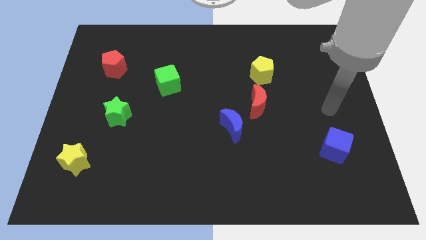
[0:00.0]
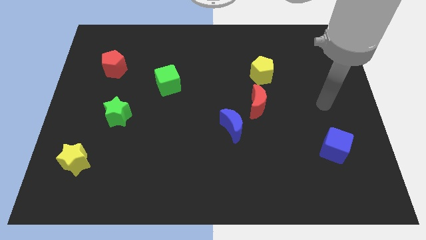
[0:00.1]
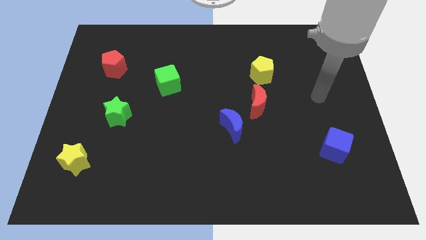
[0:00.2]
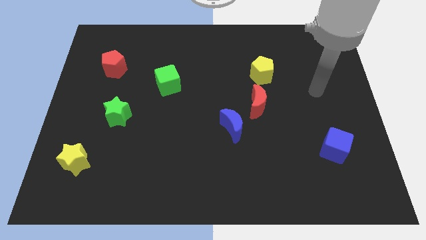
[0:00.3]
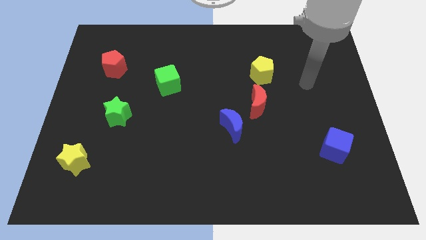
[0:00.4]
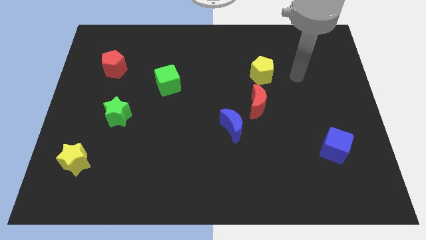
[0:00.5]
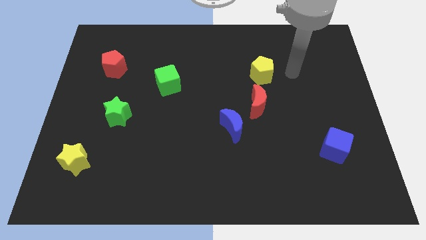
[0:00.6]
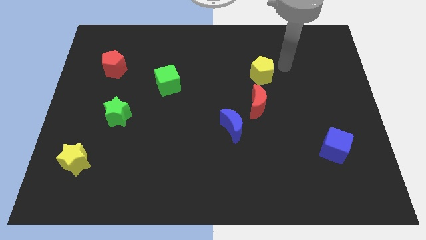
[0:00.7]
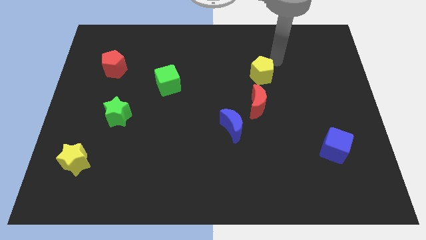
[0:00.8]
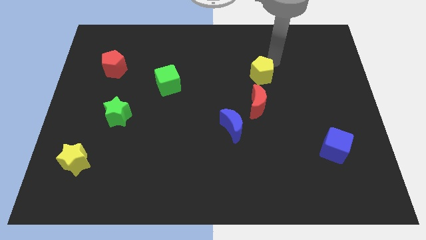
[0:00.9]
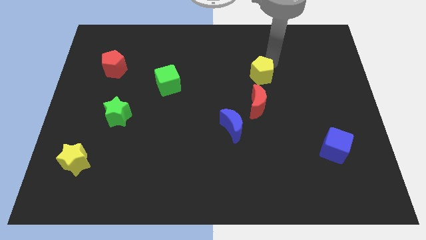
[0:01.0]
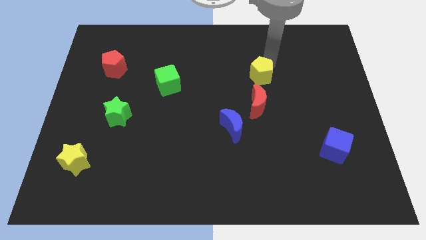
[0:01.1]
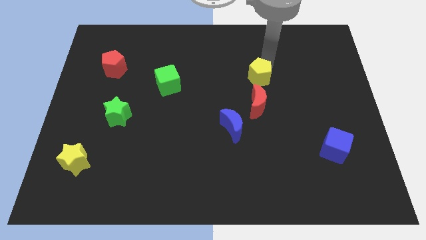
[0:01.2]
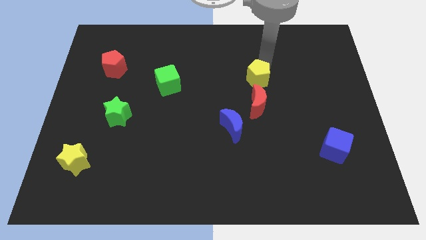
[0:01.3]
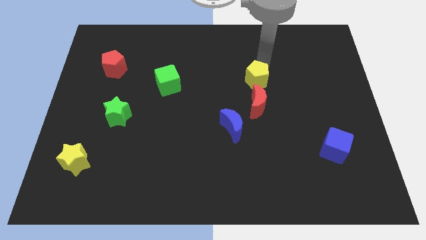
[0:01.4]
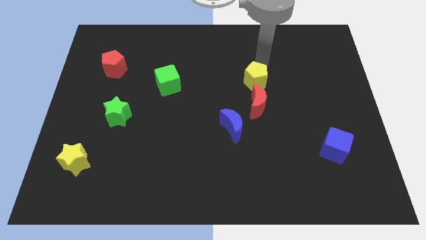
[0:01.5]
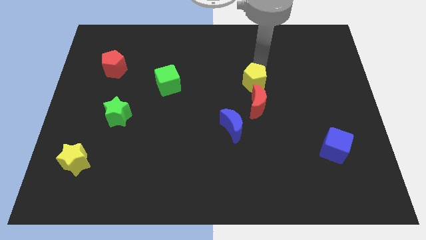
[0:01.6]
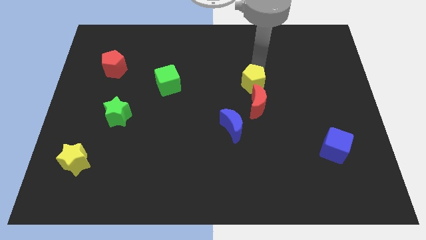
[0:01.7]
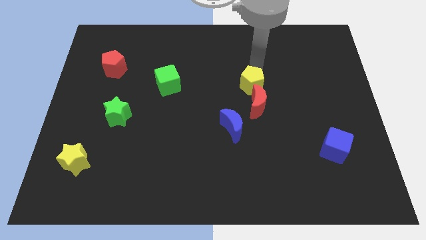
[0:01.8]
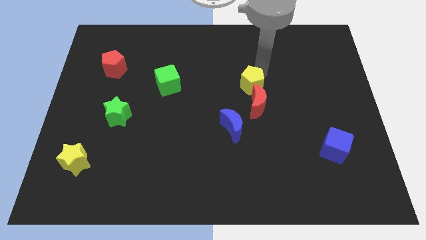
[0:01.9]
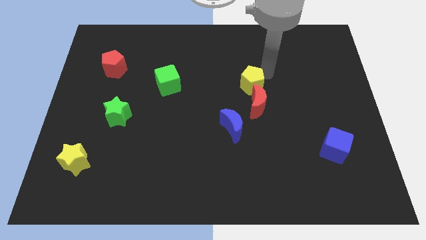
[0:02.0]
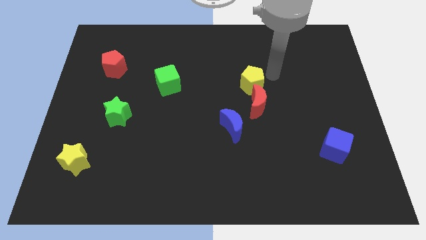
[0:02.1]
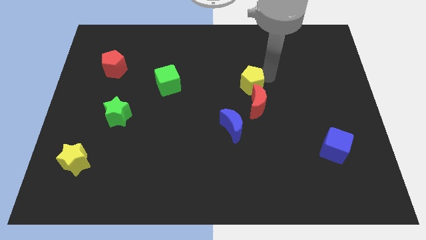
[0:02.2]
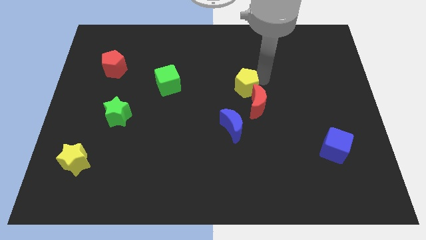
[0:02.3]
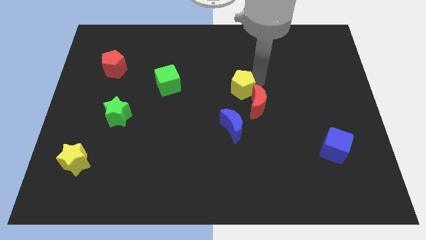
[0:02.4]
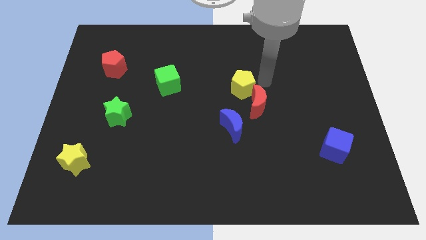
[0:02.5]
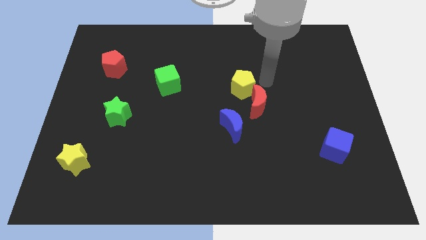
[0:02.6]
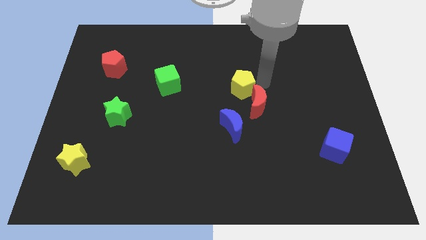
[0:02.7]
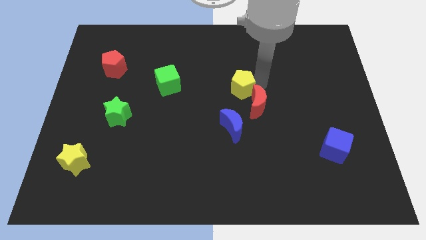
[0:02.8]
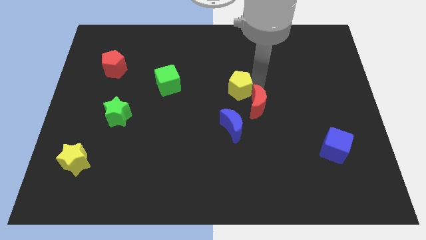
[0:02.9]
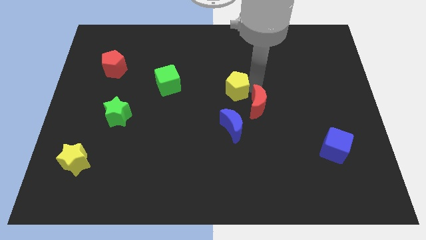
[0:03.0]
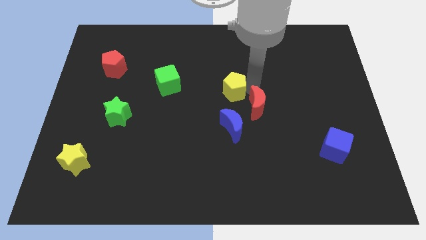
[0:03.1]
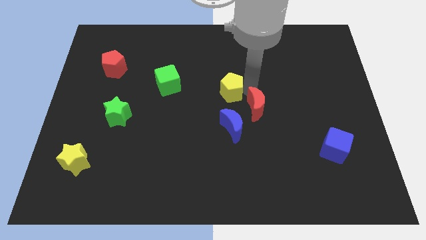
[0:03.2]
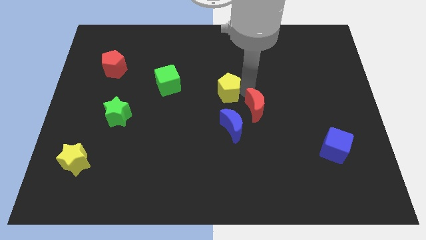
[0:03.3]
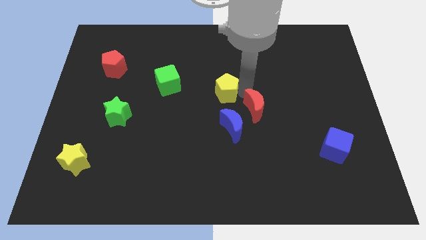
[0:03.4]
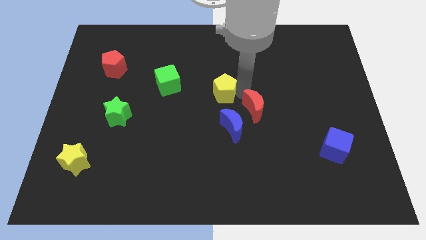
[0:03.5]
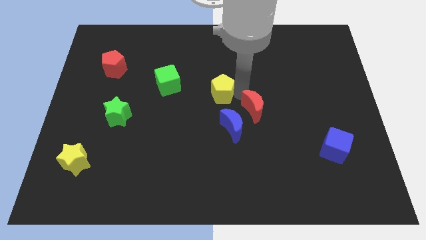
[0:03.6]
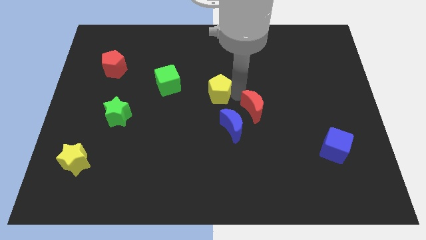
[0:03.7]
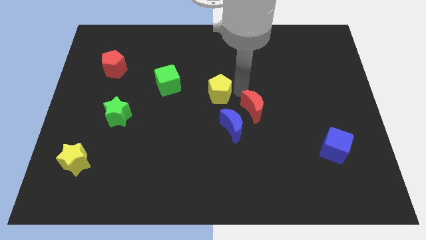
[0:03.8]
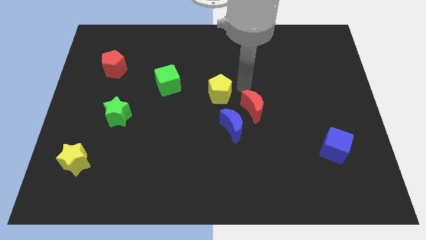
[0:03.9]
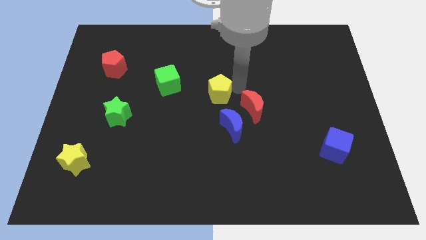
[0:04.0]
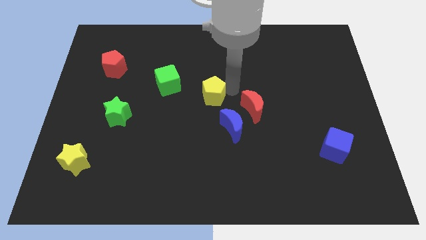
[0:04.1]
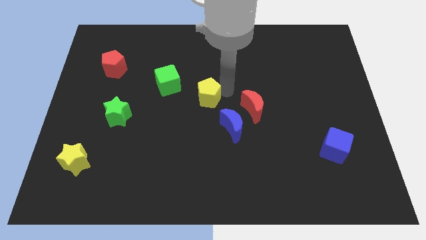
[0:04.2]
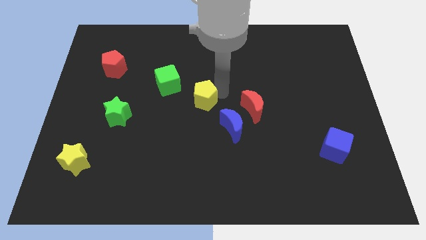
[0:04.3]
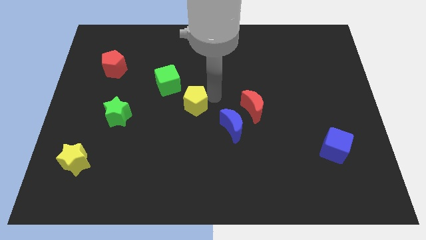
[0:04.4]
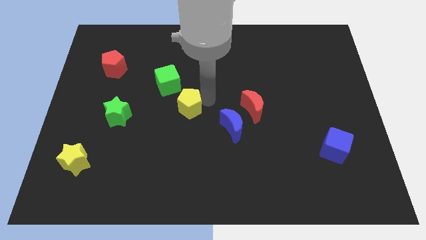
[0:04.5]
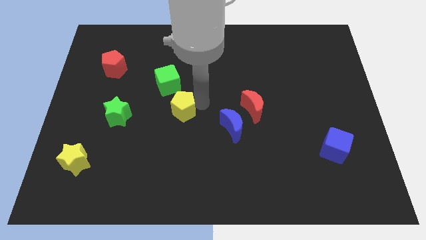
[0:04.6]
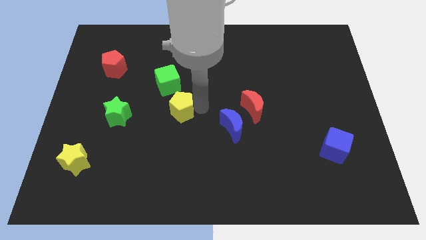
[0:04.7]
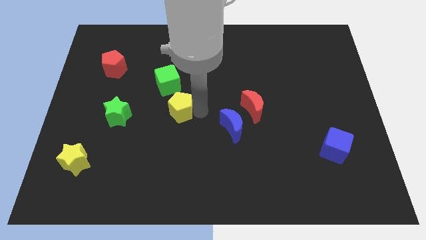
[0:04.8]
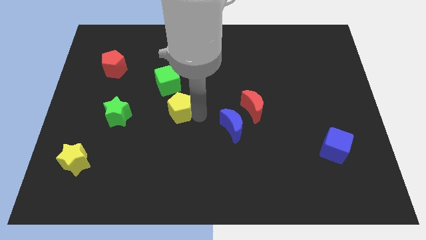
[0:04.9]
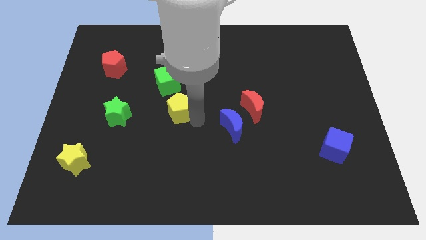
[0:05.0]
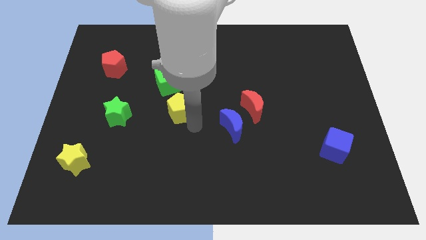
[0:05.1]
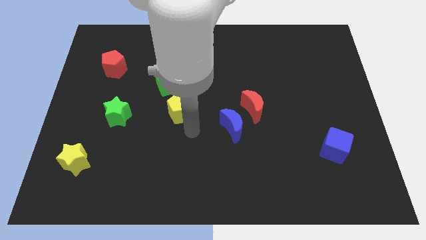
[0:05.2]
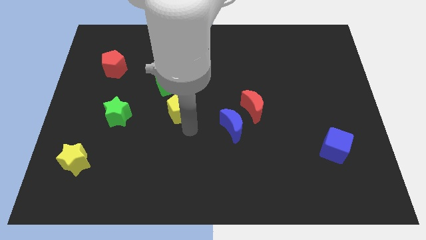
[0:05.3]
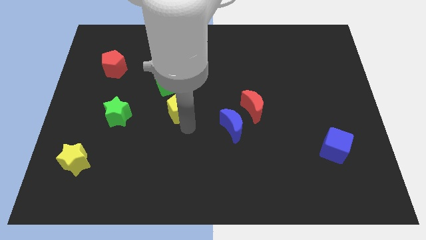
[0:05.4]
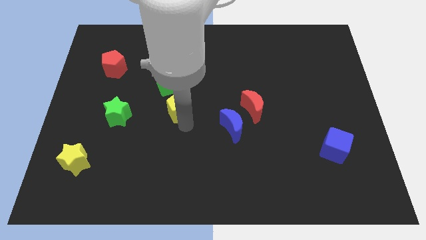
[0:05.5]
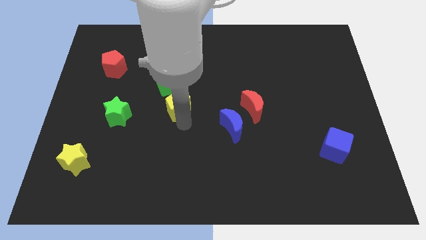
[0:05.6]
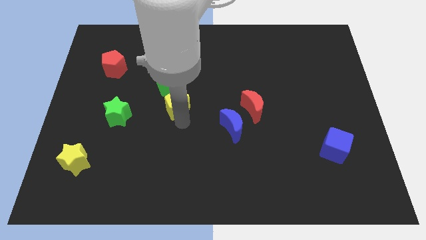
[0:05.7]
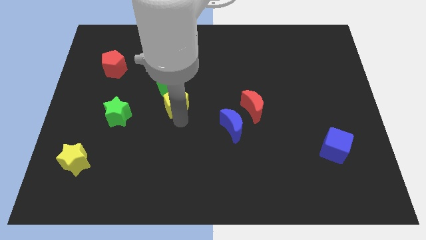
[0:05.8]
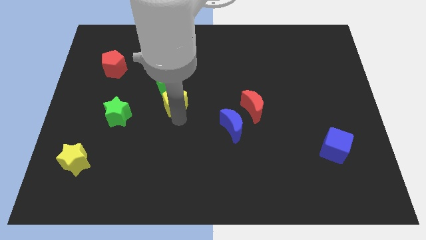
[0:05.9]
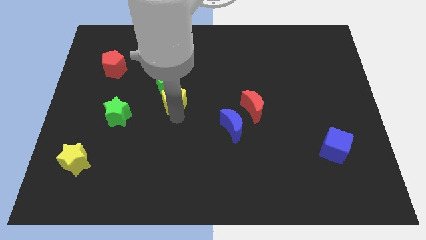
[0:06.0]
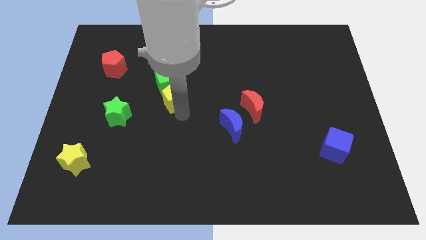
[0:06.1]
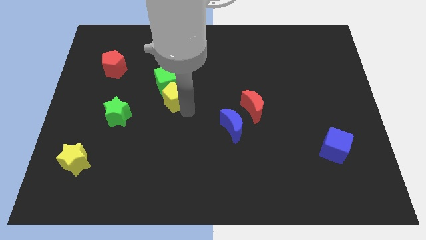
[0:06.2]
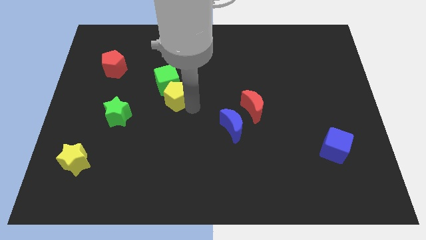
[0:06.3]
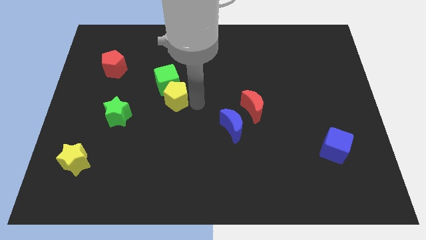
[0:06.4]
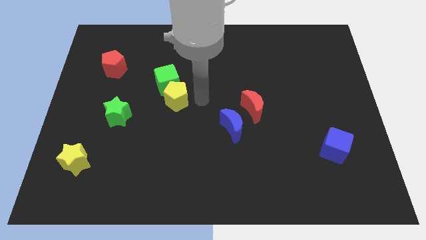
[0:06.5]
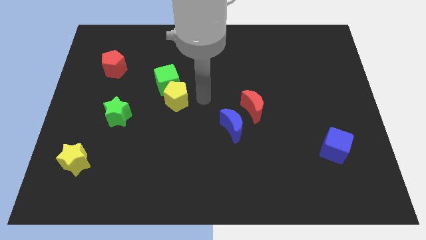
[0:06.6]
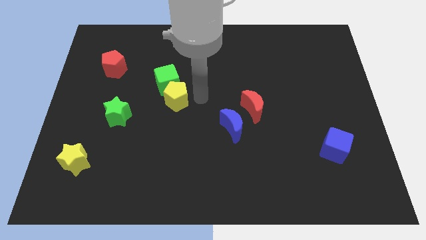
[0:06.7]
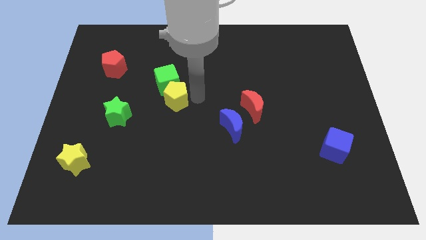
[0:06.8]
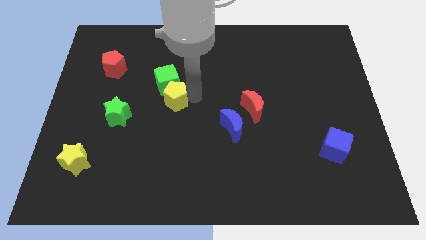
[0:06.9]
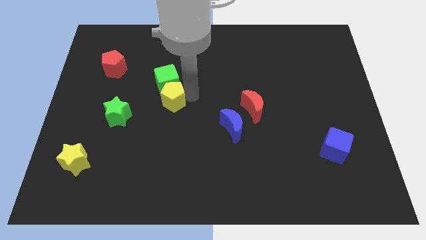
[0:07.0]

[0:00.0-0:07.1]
put the yellow pentagon to the bottom left side of the green cube

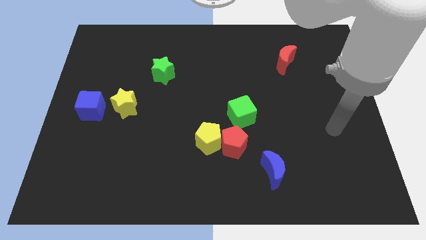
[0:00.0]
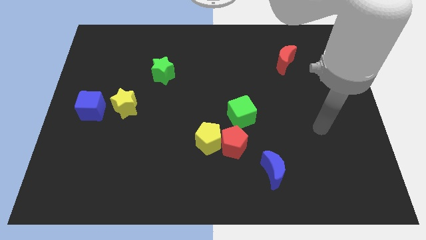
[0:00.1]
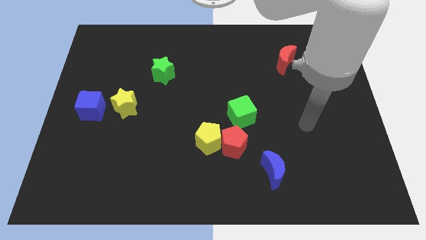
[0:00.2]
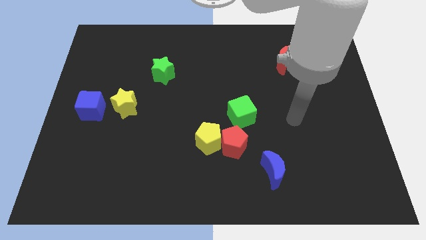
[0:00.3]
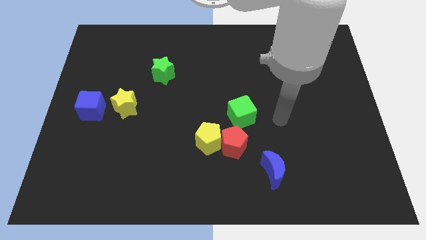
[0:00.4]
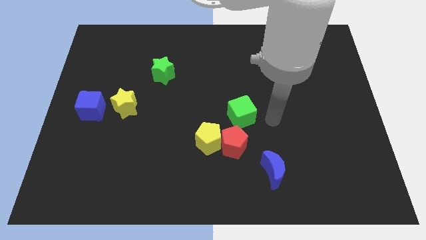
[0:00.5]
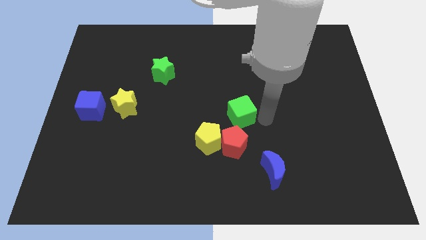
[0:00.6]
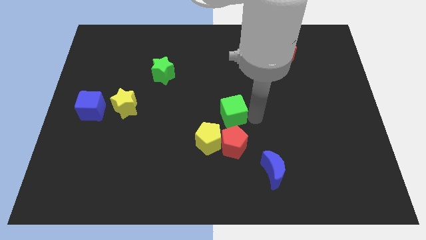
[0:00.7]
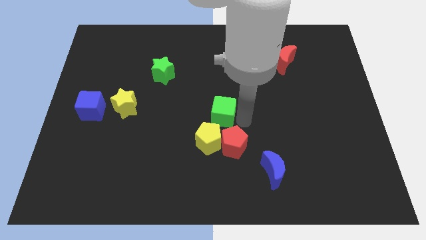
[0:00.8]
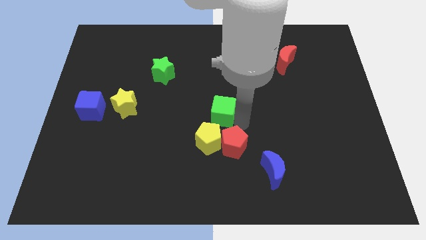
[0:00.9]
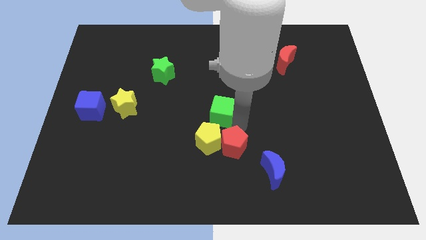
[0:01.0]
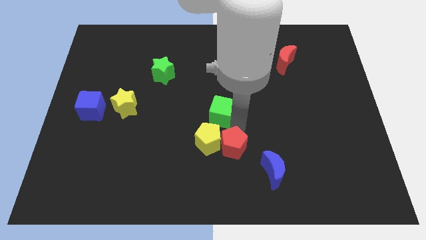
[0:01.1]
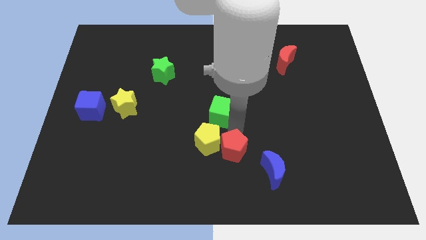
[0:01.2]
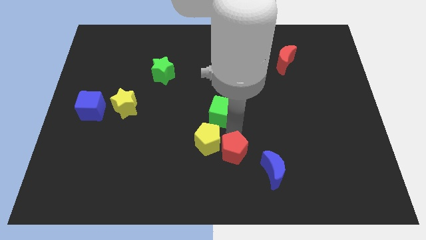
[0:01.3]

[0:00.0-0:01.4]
push the red pentagon to the left of the blue moon
